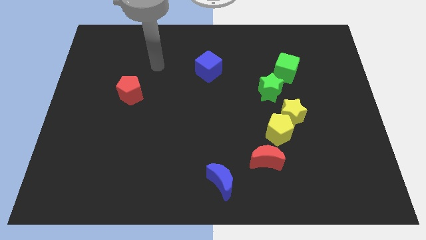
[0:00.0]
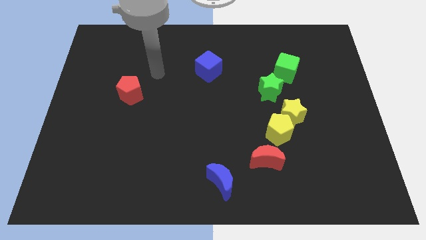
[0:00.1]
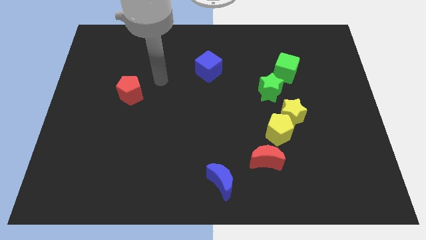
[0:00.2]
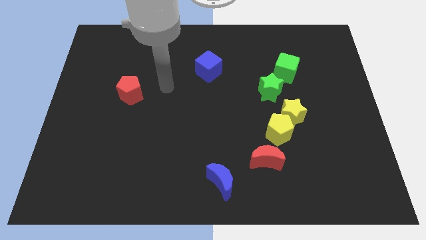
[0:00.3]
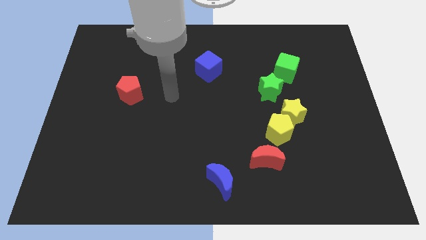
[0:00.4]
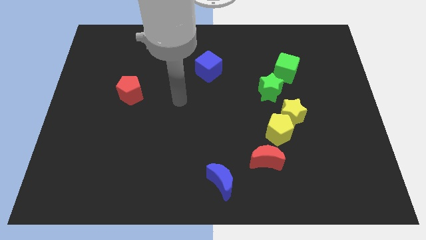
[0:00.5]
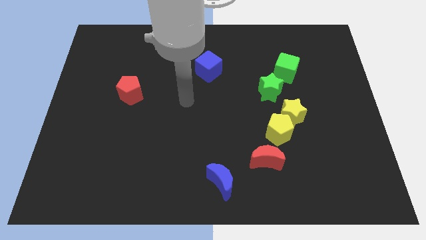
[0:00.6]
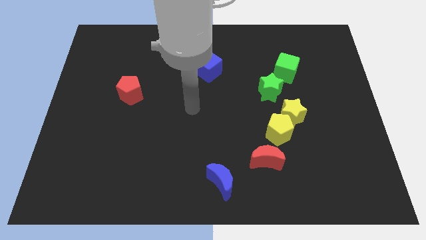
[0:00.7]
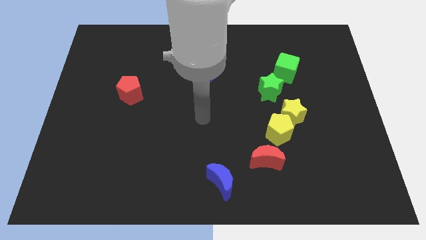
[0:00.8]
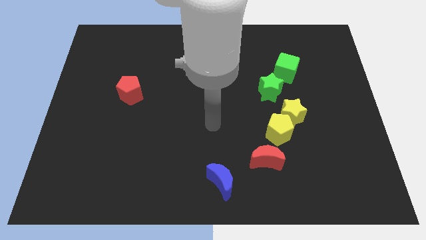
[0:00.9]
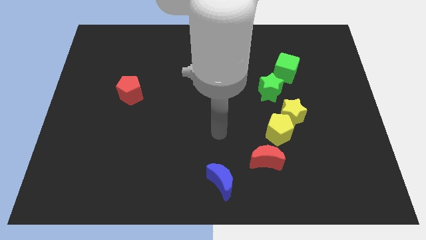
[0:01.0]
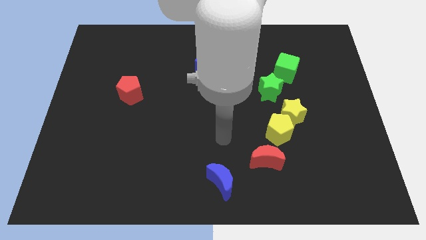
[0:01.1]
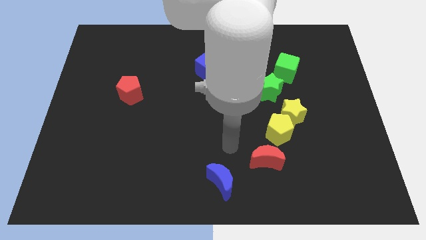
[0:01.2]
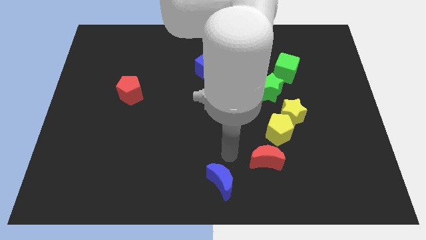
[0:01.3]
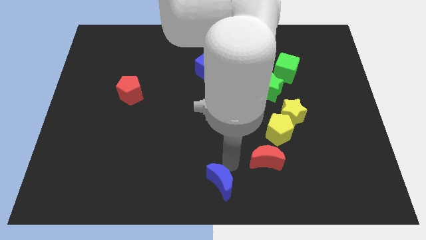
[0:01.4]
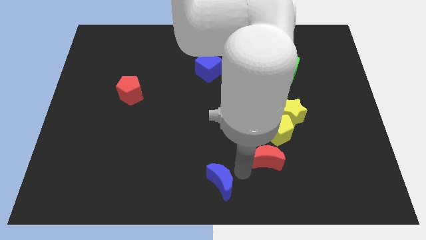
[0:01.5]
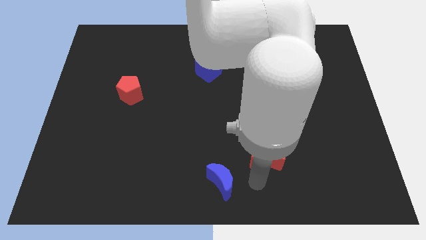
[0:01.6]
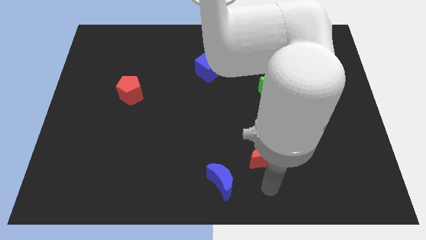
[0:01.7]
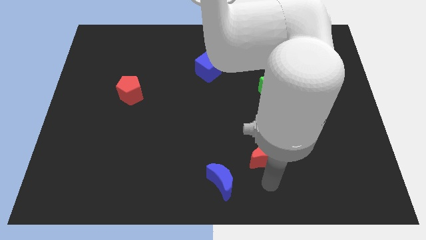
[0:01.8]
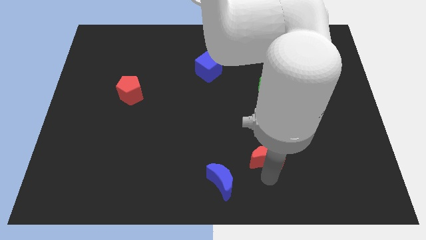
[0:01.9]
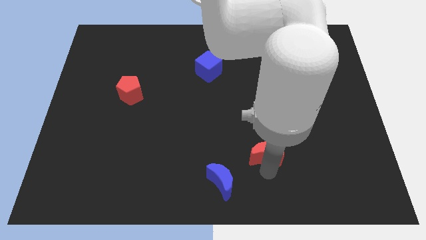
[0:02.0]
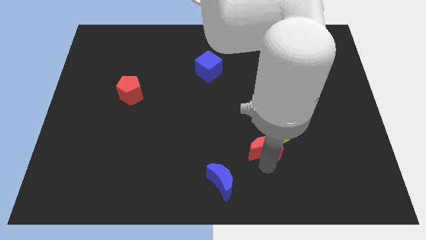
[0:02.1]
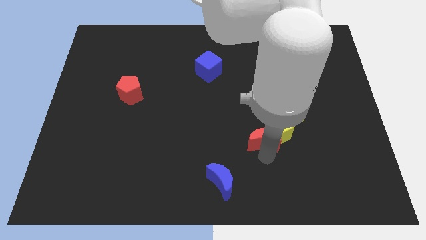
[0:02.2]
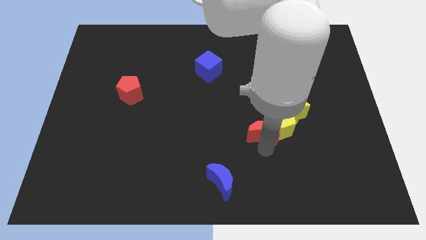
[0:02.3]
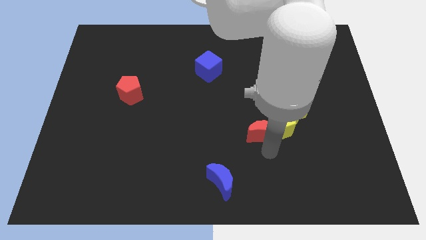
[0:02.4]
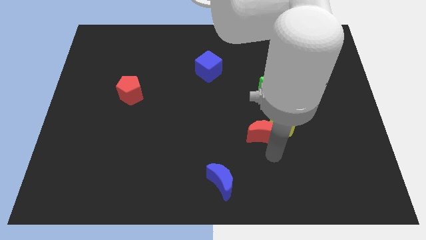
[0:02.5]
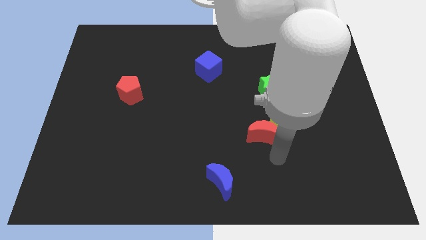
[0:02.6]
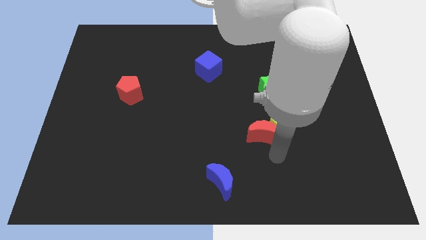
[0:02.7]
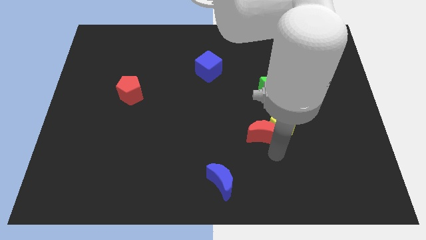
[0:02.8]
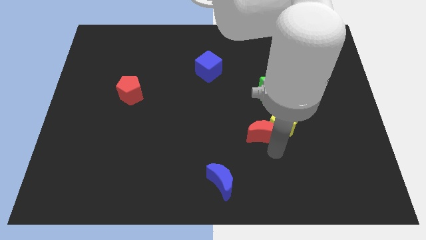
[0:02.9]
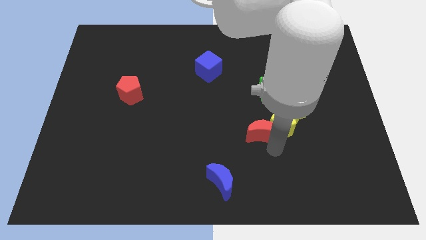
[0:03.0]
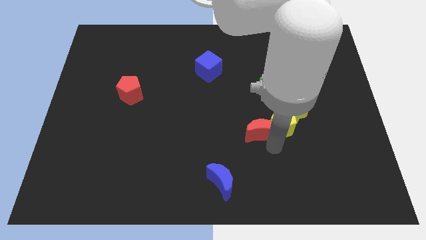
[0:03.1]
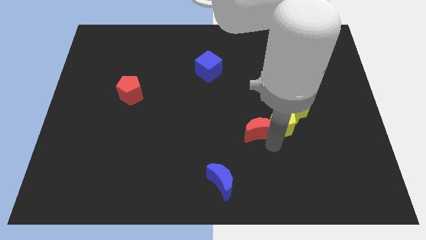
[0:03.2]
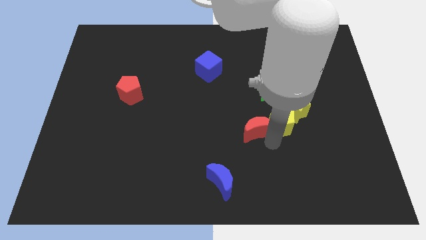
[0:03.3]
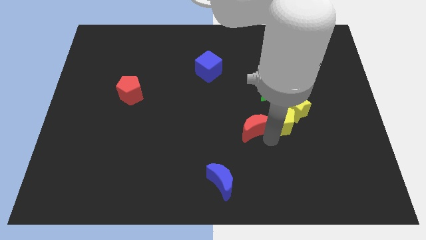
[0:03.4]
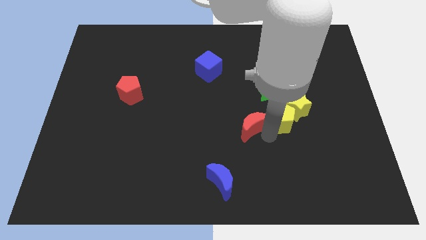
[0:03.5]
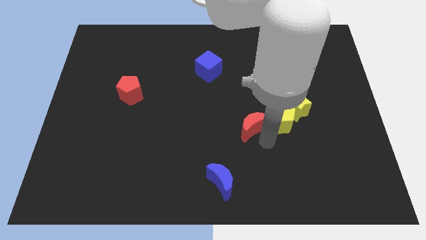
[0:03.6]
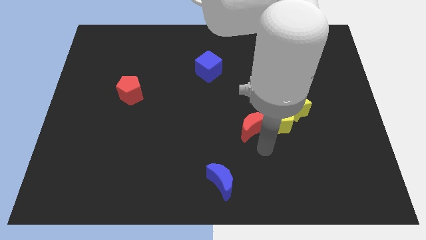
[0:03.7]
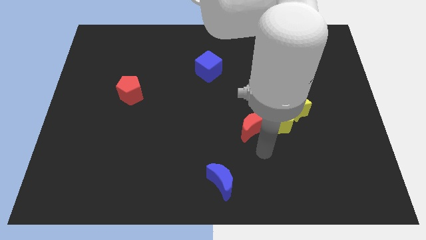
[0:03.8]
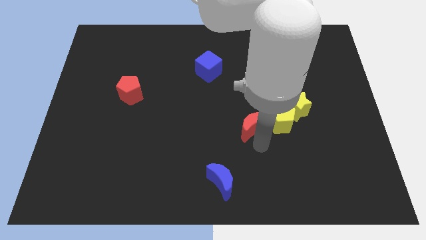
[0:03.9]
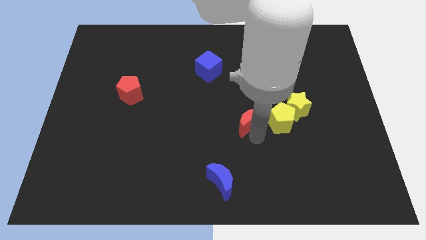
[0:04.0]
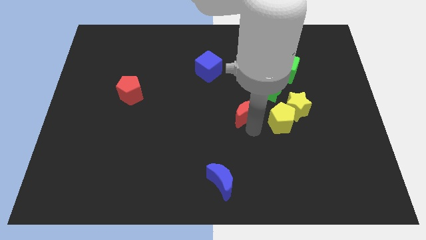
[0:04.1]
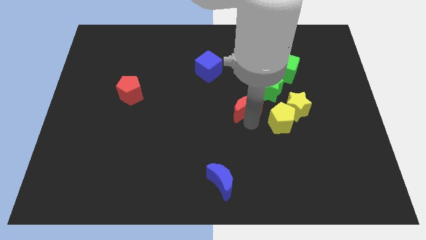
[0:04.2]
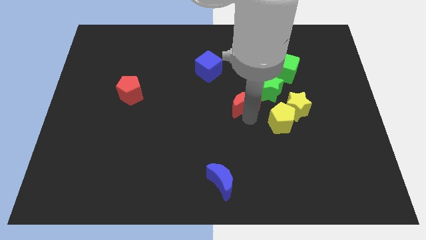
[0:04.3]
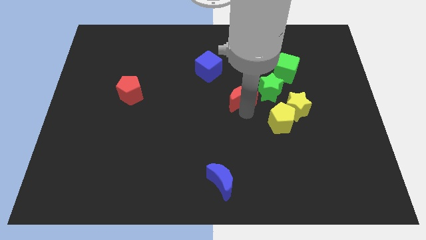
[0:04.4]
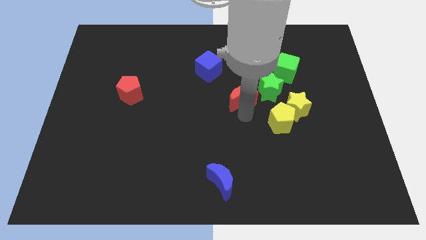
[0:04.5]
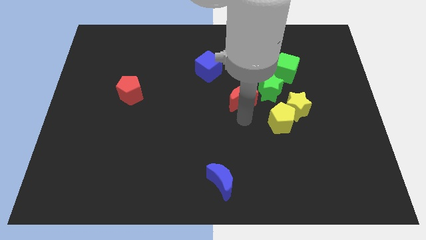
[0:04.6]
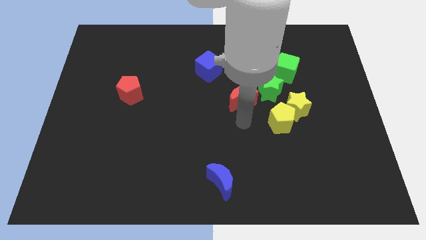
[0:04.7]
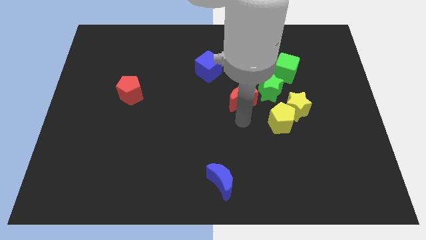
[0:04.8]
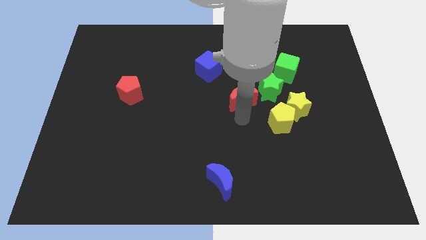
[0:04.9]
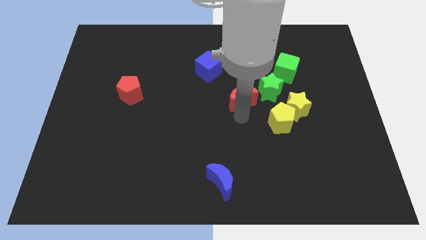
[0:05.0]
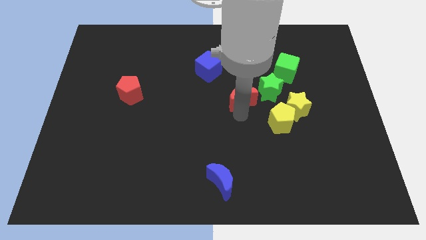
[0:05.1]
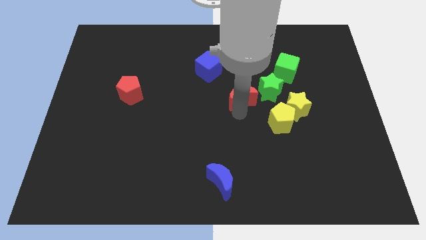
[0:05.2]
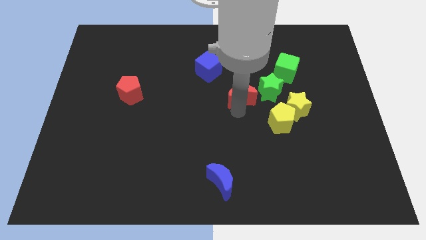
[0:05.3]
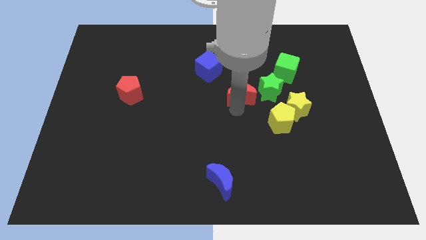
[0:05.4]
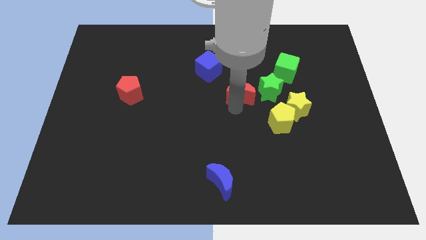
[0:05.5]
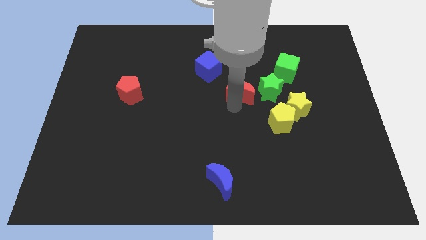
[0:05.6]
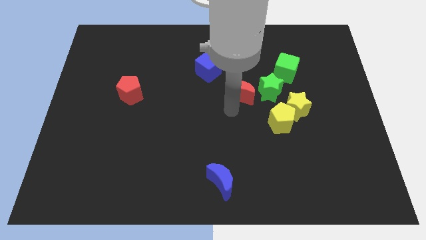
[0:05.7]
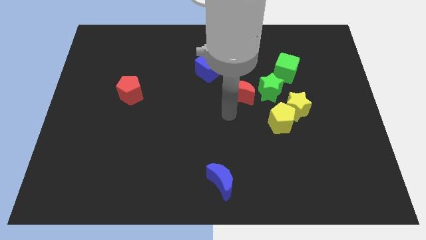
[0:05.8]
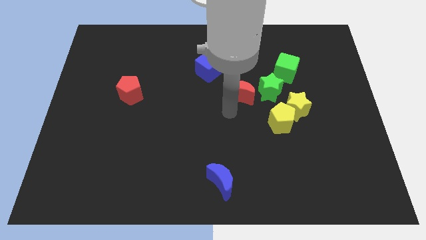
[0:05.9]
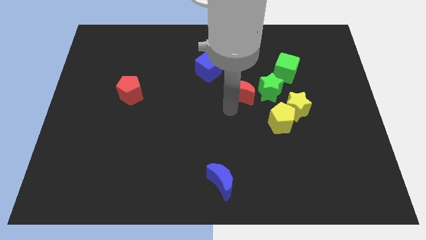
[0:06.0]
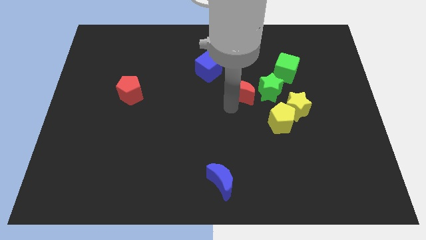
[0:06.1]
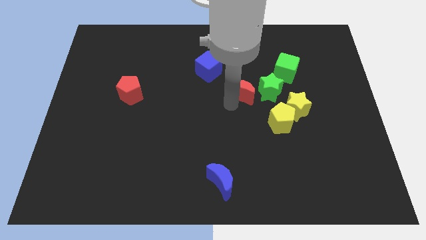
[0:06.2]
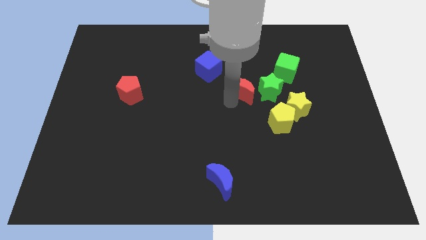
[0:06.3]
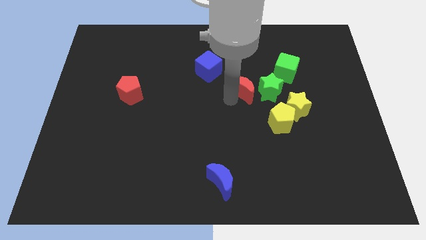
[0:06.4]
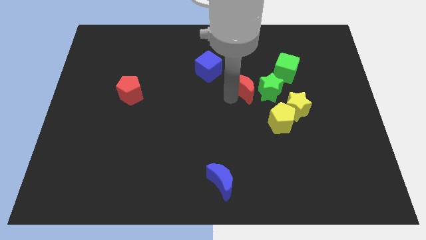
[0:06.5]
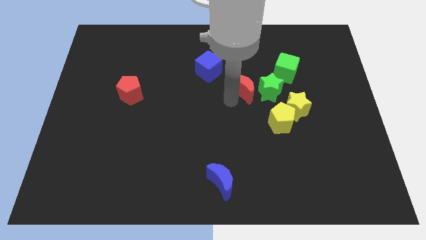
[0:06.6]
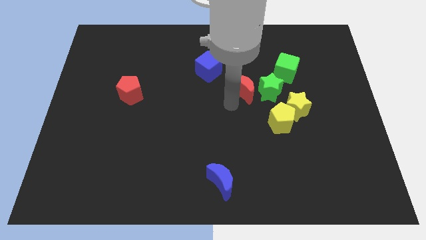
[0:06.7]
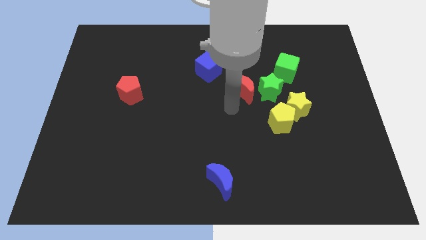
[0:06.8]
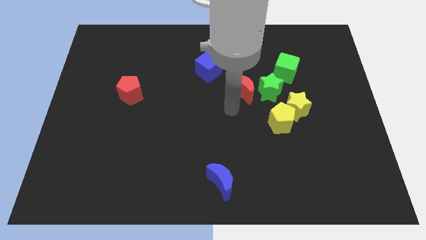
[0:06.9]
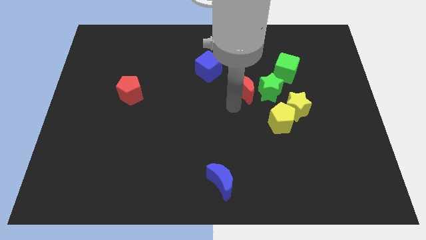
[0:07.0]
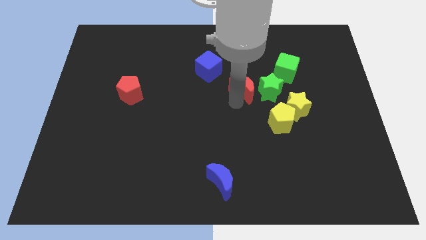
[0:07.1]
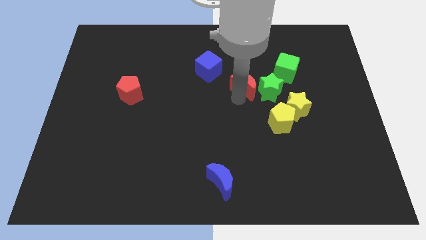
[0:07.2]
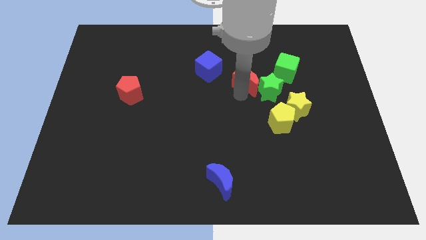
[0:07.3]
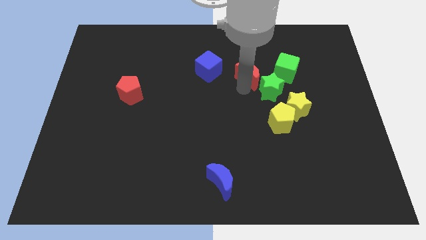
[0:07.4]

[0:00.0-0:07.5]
move the red moon to the top side of the green star
